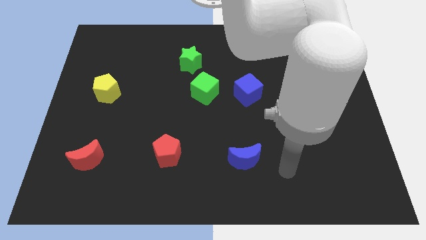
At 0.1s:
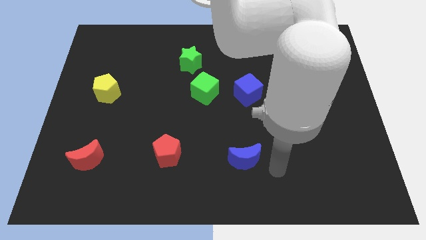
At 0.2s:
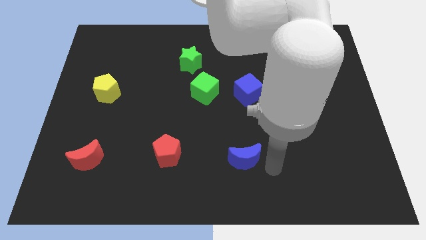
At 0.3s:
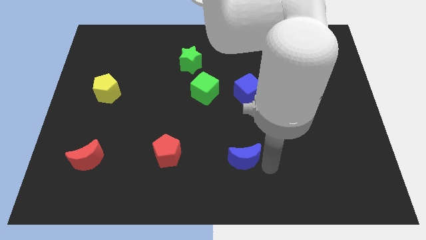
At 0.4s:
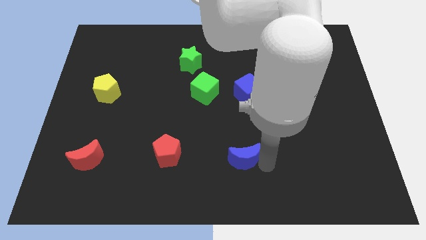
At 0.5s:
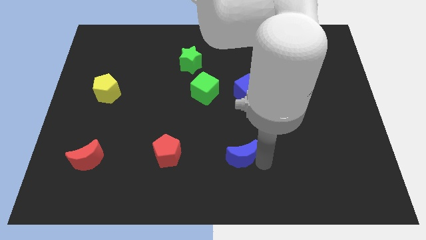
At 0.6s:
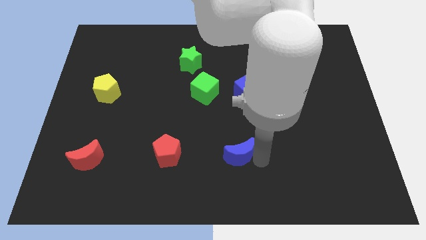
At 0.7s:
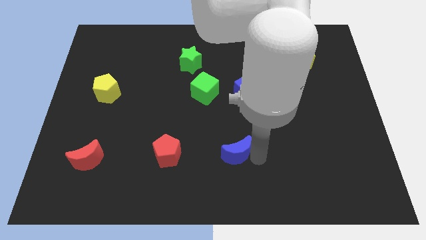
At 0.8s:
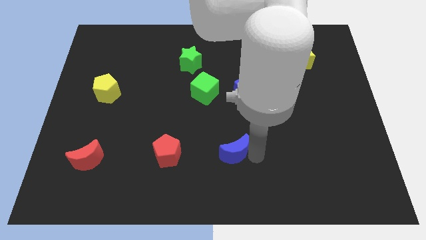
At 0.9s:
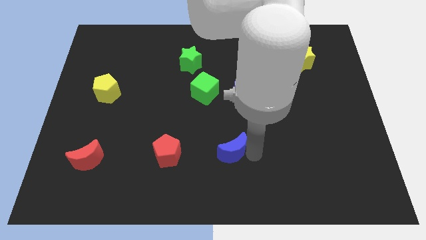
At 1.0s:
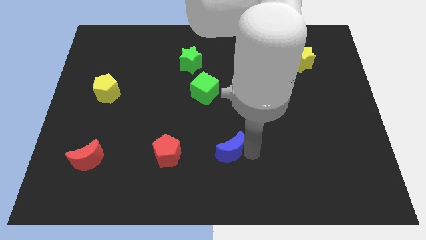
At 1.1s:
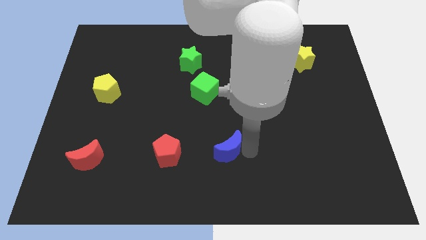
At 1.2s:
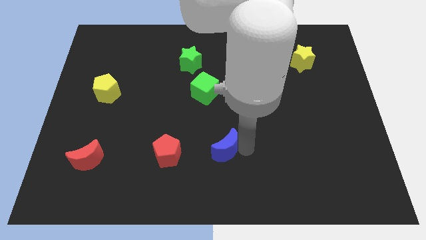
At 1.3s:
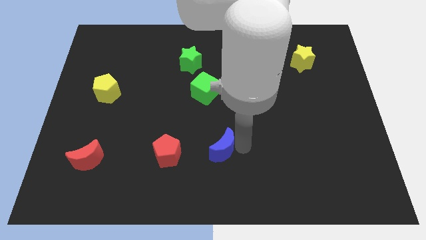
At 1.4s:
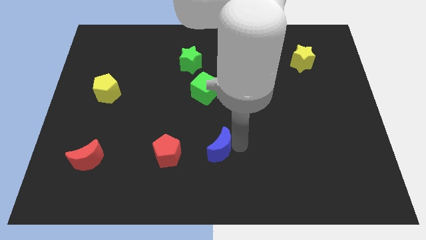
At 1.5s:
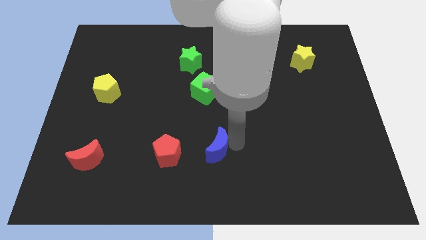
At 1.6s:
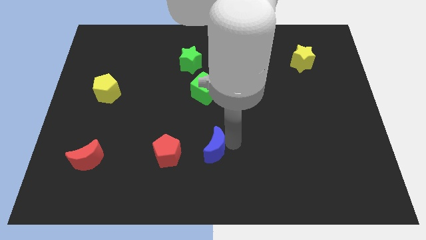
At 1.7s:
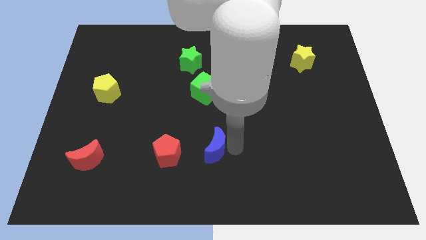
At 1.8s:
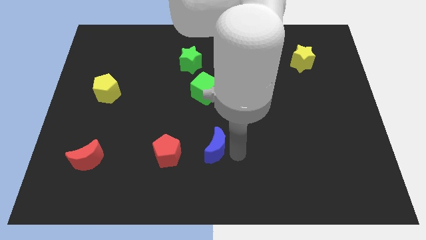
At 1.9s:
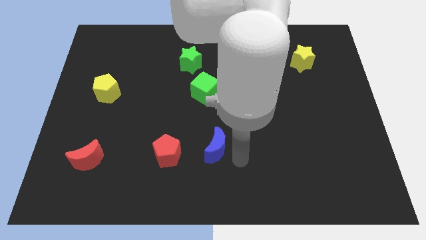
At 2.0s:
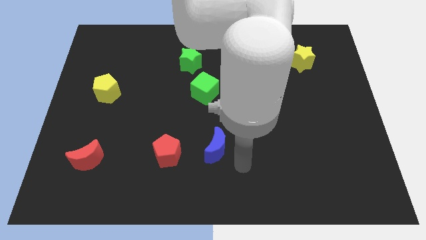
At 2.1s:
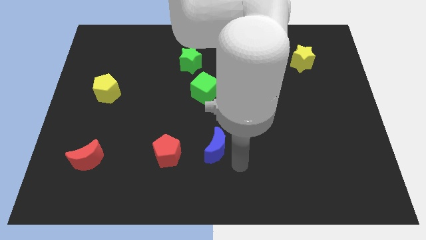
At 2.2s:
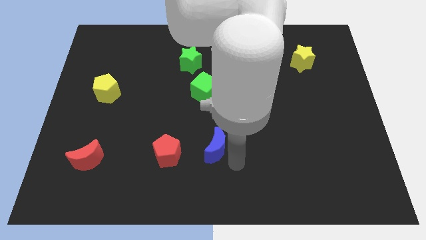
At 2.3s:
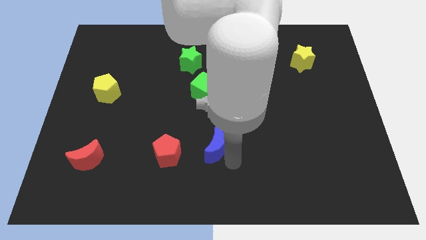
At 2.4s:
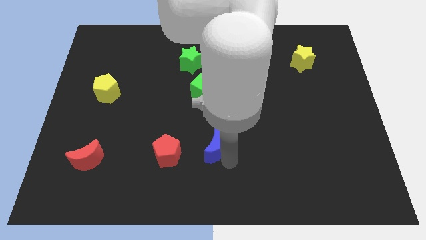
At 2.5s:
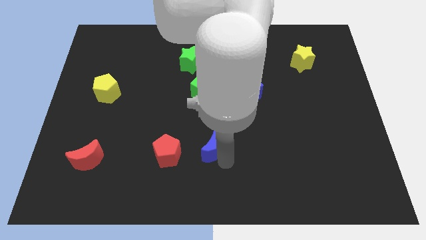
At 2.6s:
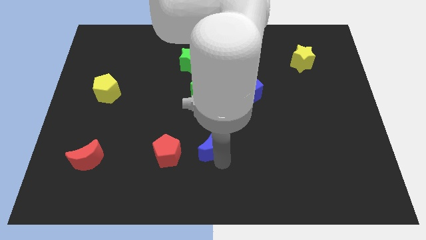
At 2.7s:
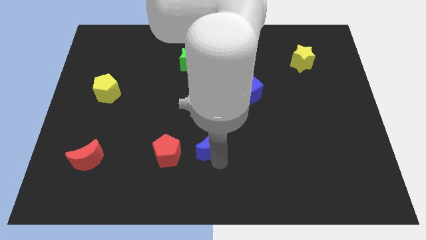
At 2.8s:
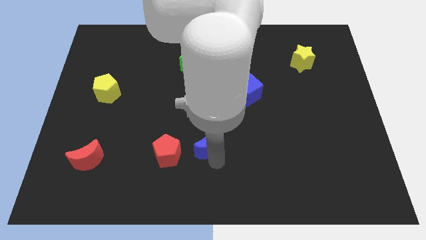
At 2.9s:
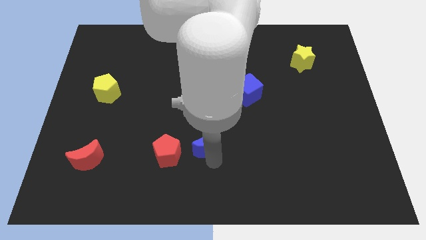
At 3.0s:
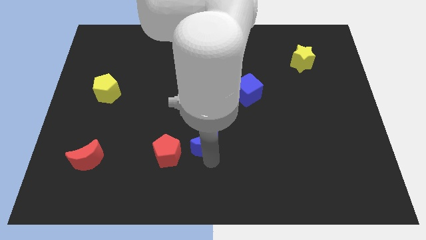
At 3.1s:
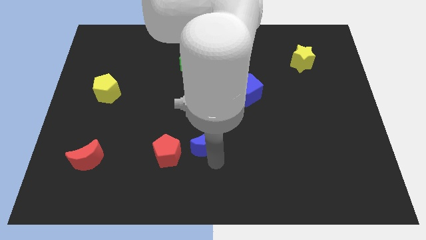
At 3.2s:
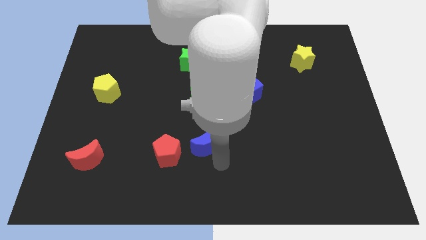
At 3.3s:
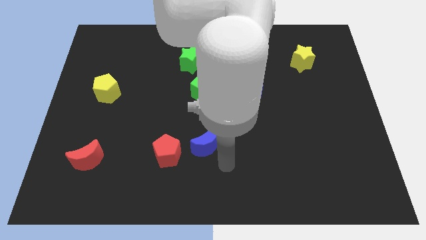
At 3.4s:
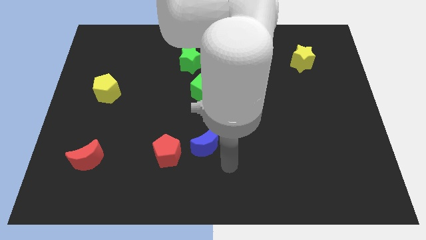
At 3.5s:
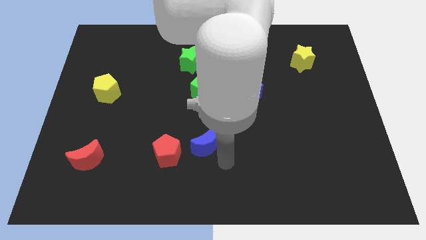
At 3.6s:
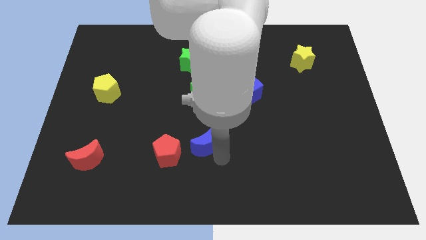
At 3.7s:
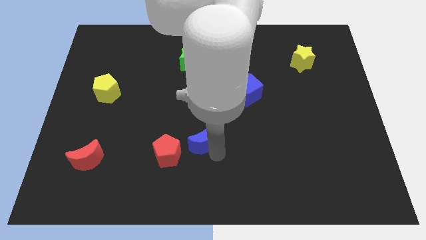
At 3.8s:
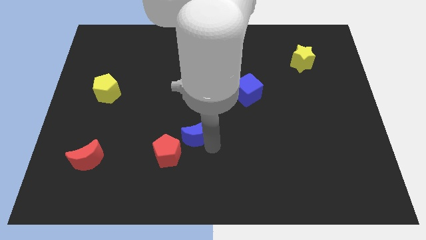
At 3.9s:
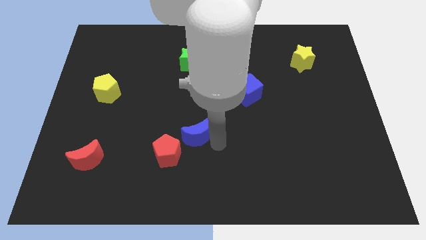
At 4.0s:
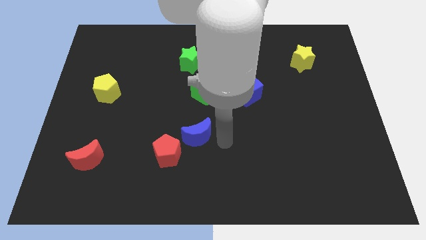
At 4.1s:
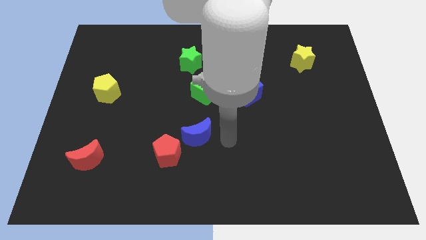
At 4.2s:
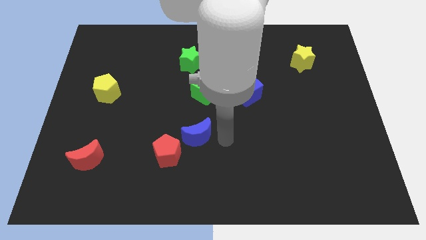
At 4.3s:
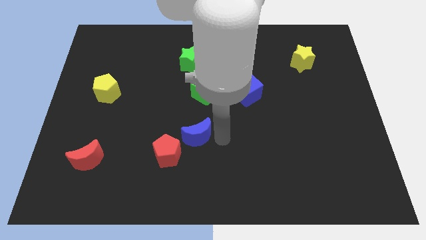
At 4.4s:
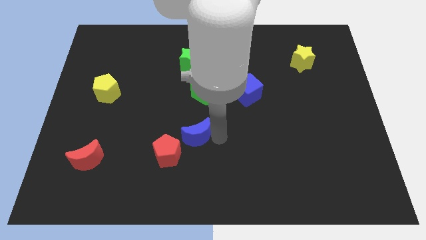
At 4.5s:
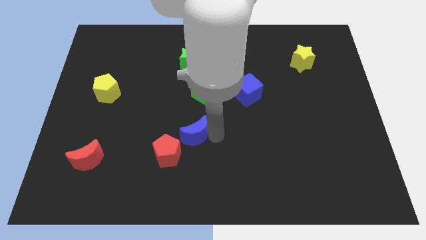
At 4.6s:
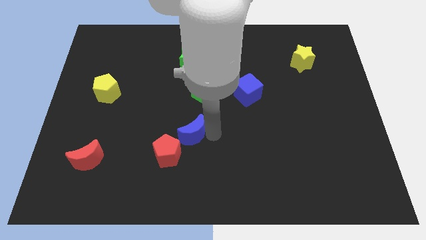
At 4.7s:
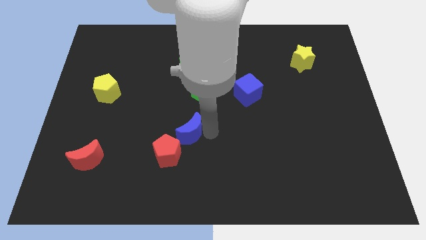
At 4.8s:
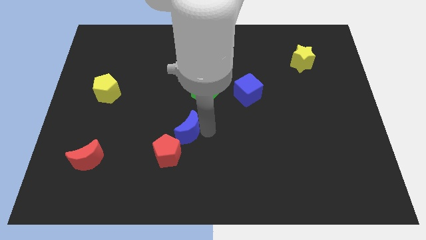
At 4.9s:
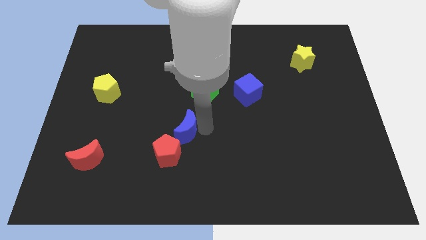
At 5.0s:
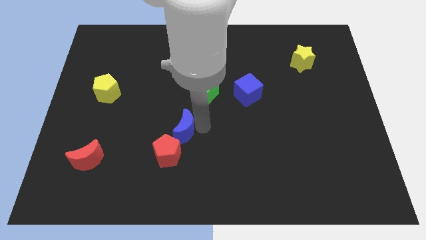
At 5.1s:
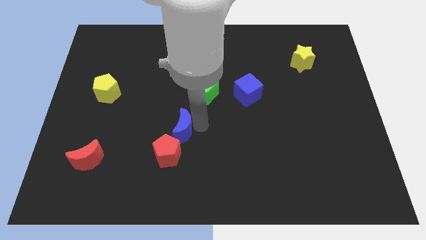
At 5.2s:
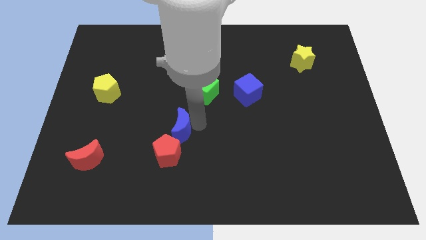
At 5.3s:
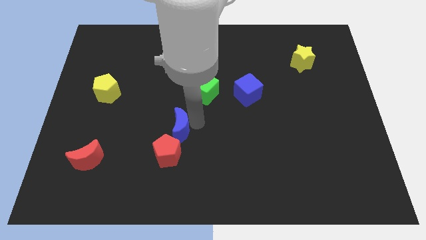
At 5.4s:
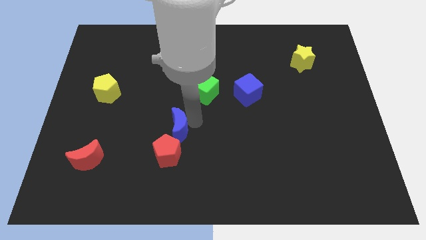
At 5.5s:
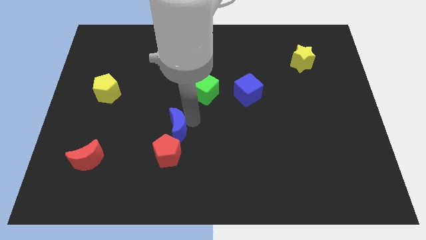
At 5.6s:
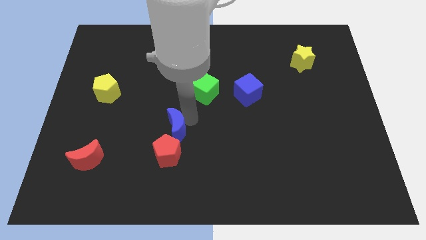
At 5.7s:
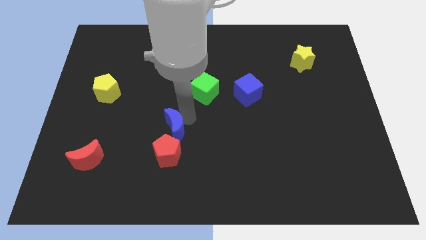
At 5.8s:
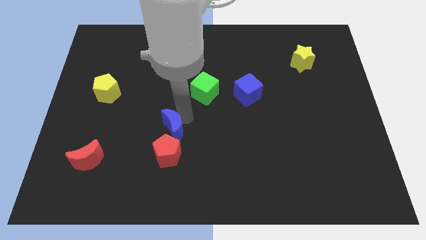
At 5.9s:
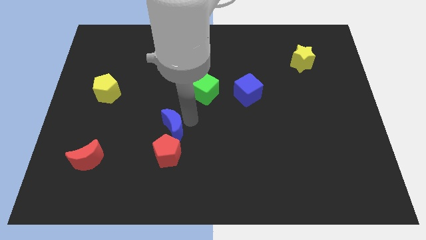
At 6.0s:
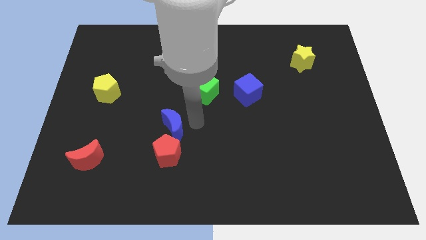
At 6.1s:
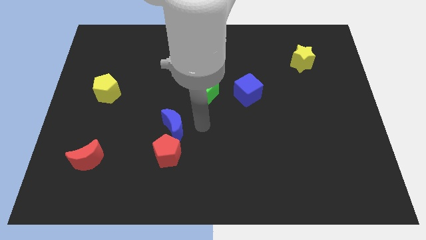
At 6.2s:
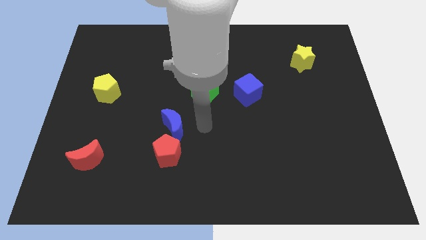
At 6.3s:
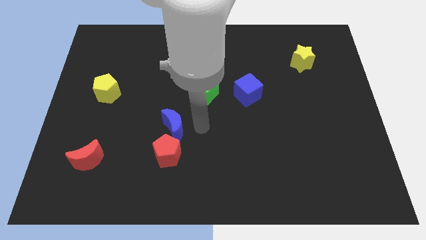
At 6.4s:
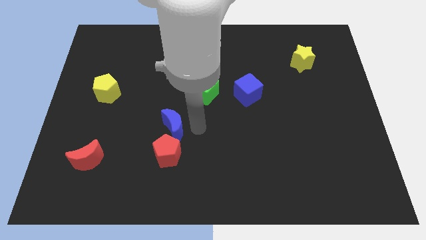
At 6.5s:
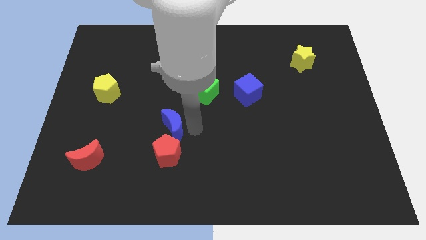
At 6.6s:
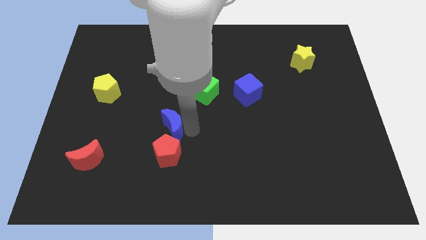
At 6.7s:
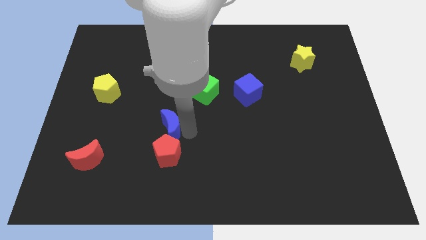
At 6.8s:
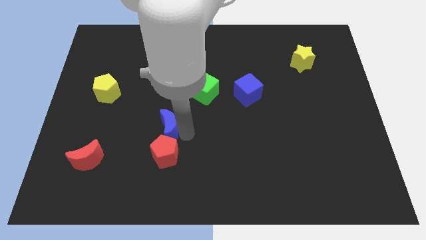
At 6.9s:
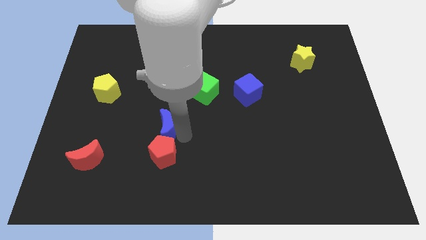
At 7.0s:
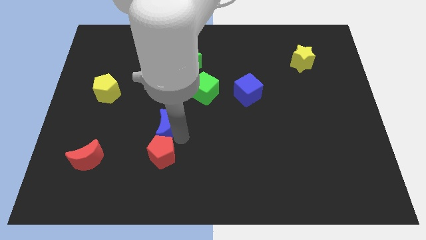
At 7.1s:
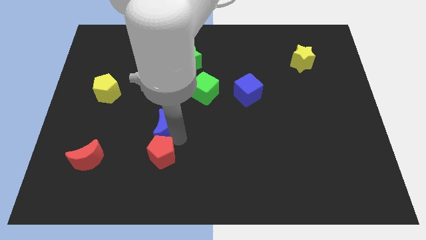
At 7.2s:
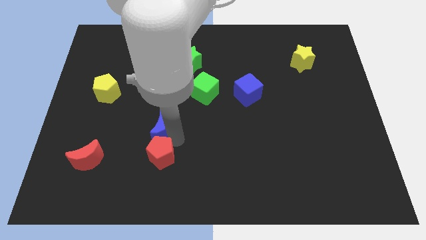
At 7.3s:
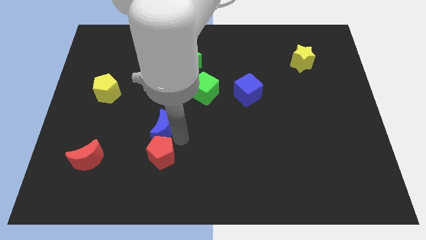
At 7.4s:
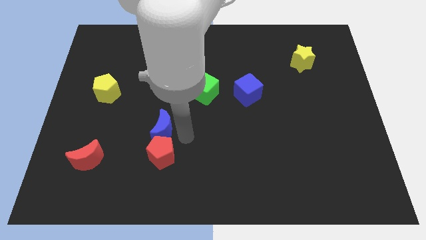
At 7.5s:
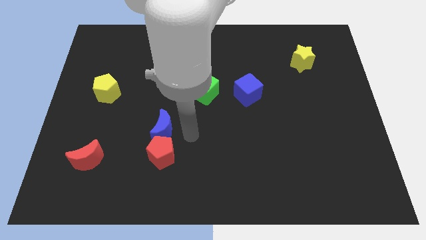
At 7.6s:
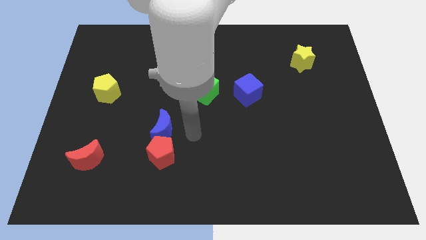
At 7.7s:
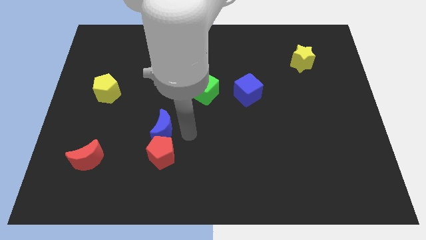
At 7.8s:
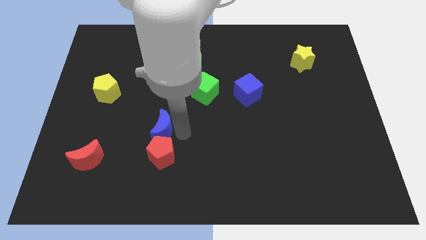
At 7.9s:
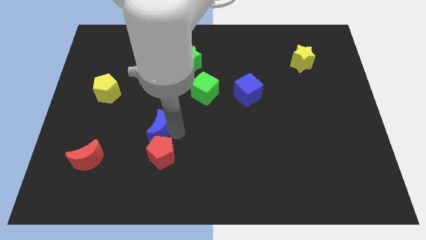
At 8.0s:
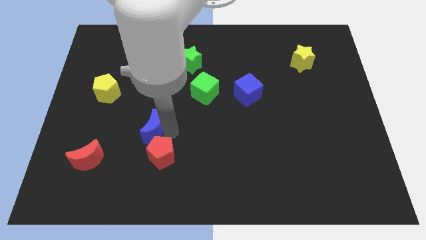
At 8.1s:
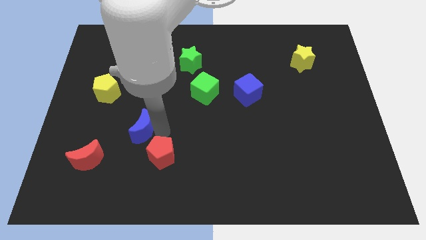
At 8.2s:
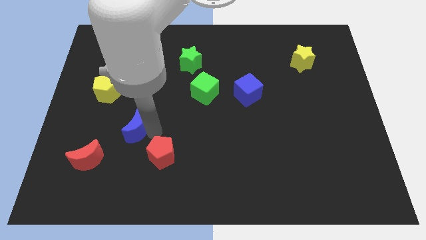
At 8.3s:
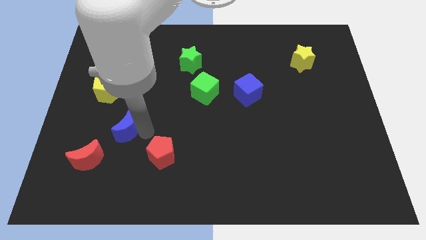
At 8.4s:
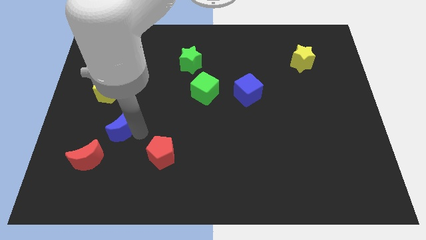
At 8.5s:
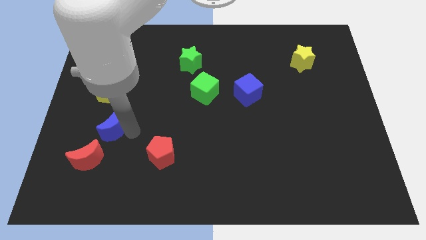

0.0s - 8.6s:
slide the blue moon above the red moon
